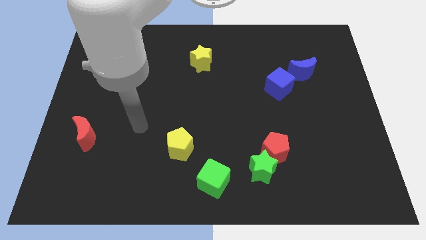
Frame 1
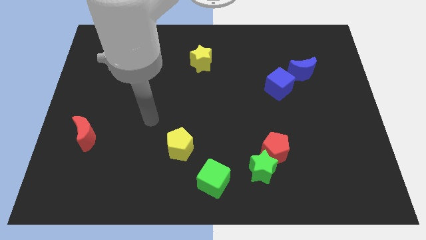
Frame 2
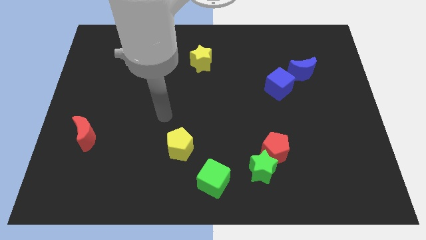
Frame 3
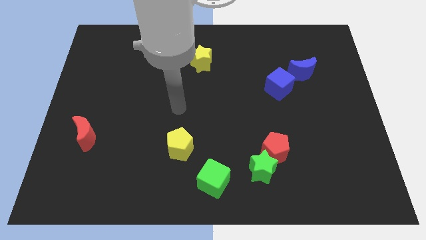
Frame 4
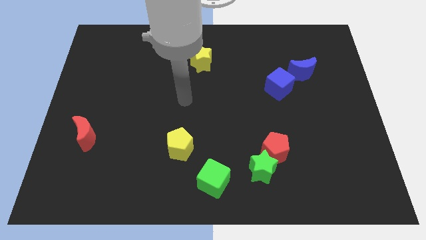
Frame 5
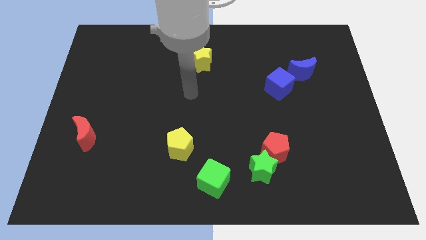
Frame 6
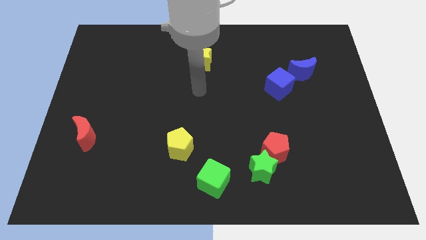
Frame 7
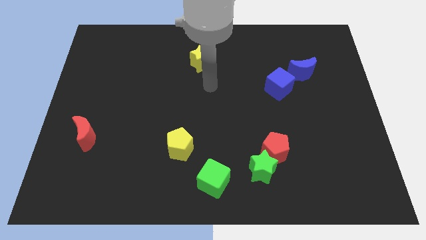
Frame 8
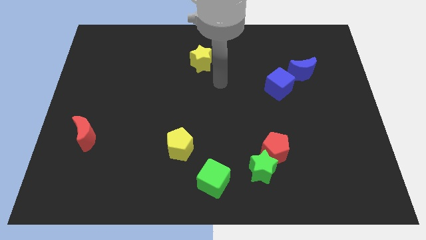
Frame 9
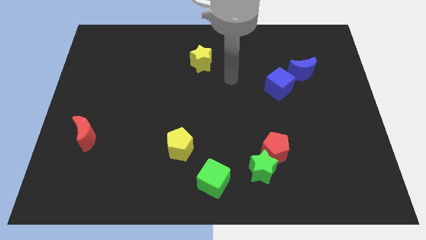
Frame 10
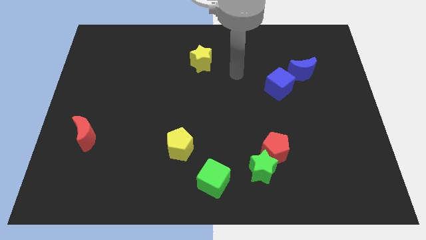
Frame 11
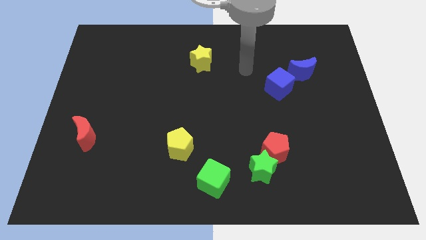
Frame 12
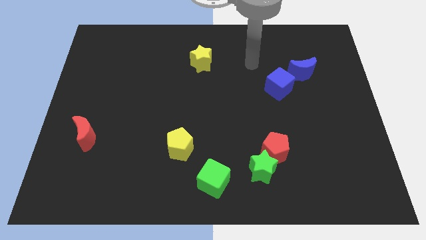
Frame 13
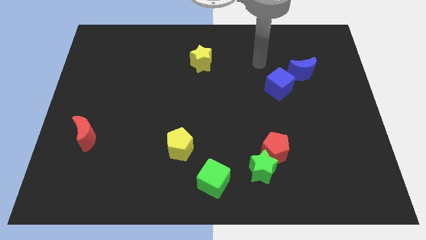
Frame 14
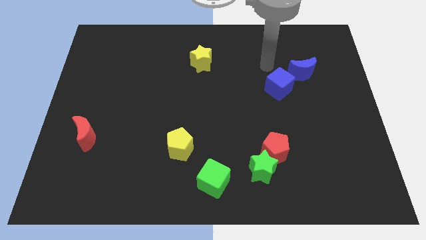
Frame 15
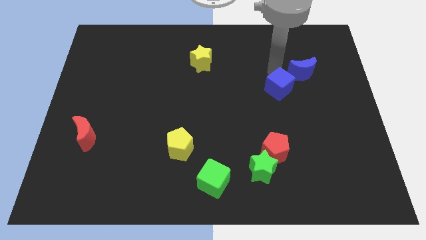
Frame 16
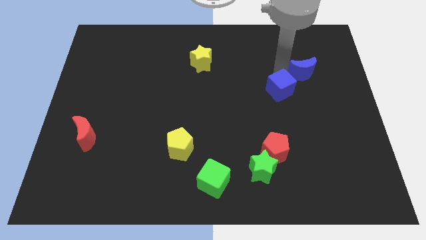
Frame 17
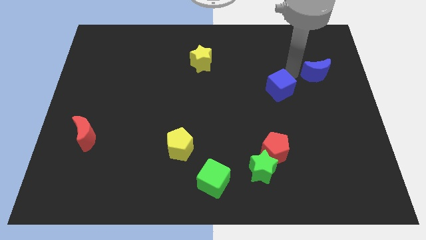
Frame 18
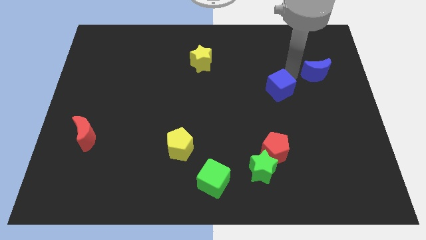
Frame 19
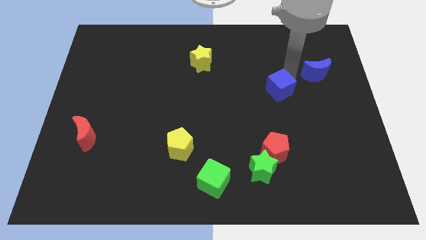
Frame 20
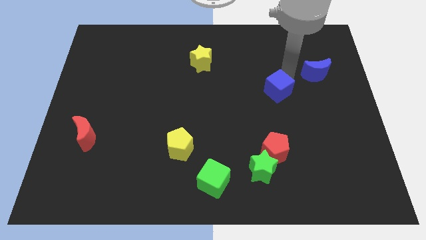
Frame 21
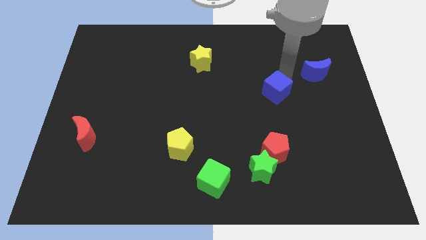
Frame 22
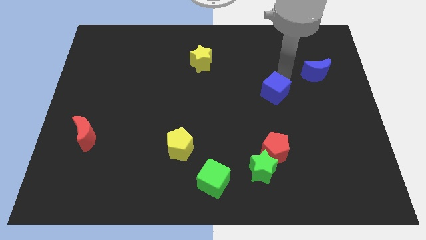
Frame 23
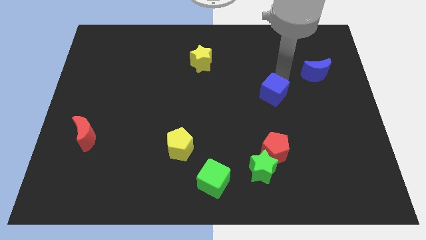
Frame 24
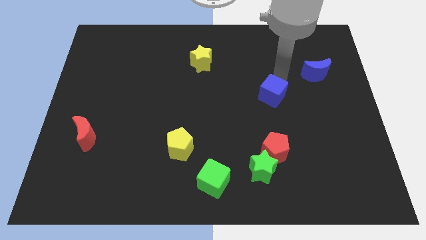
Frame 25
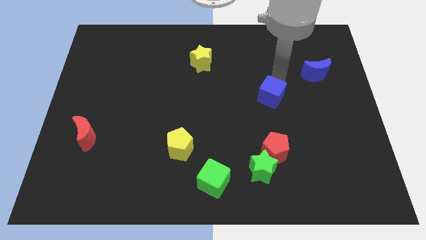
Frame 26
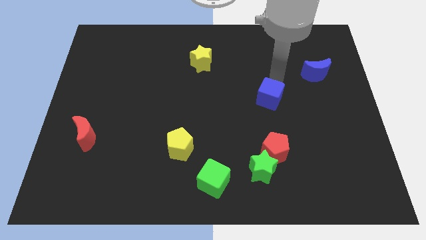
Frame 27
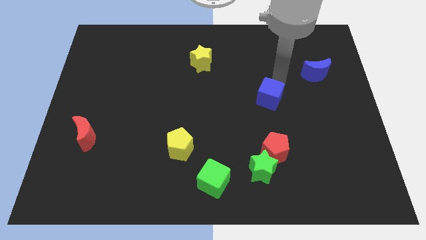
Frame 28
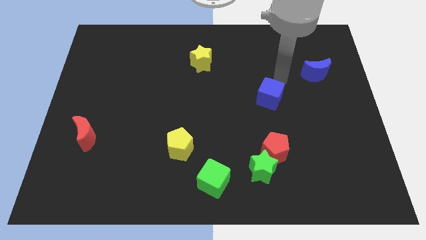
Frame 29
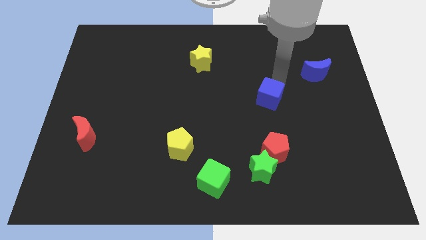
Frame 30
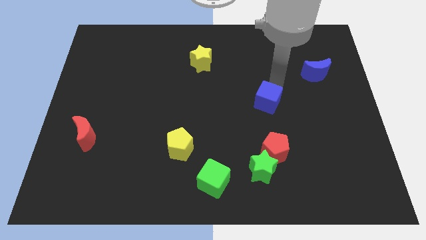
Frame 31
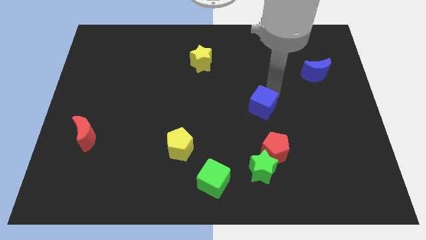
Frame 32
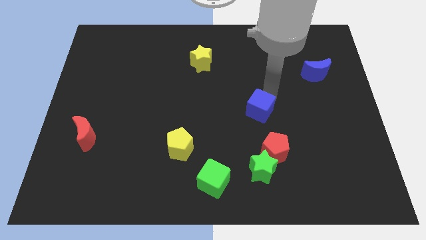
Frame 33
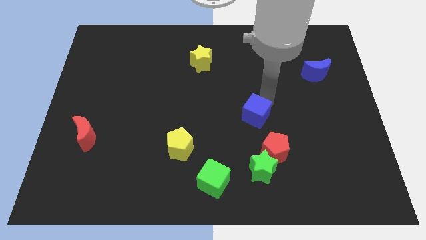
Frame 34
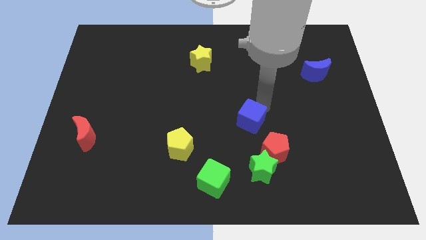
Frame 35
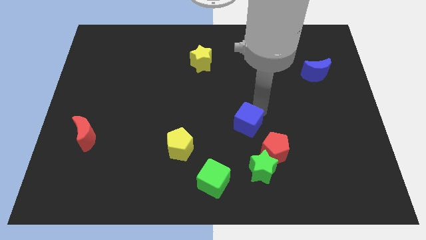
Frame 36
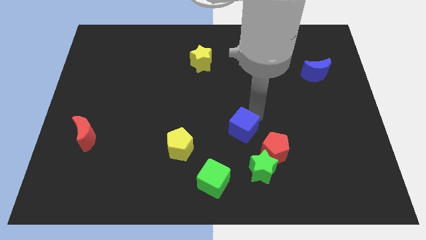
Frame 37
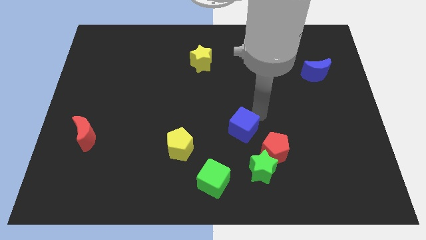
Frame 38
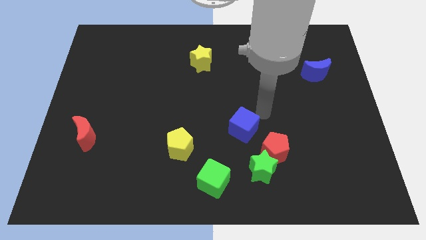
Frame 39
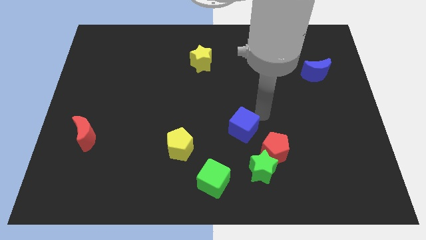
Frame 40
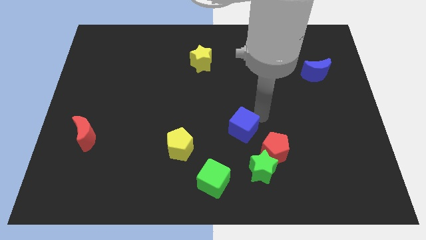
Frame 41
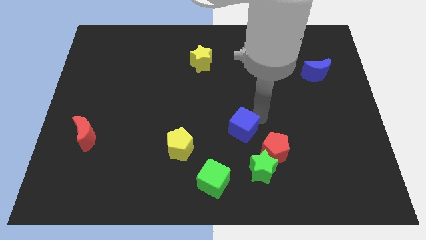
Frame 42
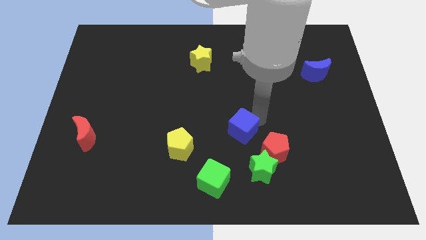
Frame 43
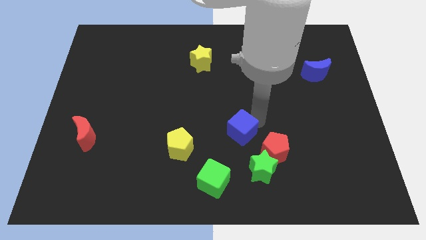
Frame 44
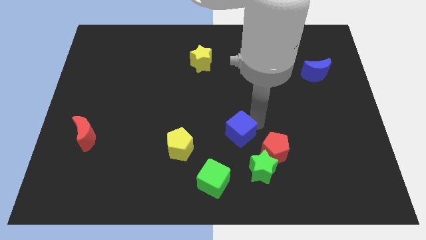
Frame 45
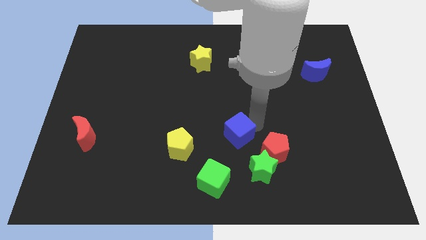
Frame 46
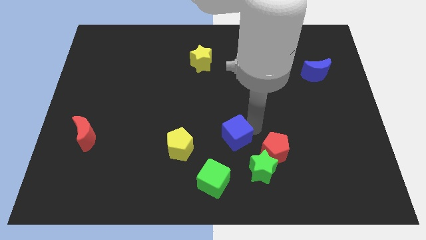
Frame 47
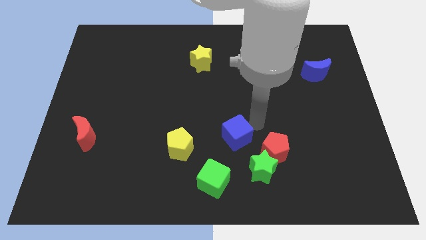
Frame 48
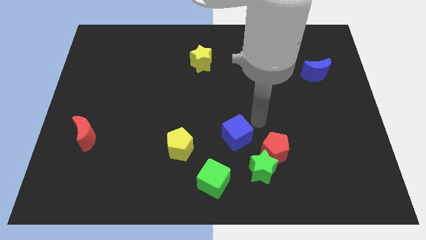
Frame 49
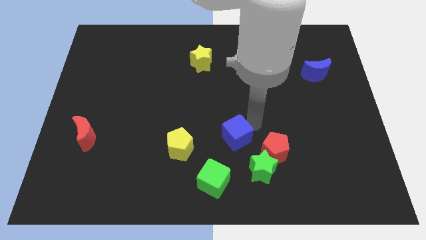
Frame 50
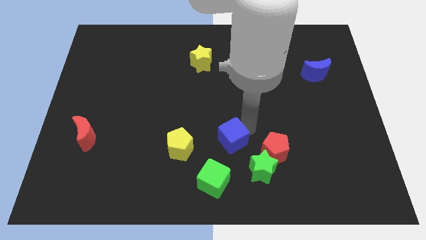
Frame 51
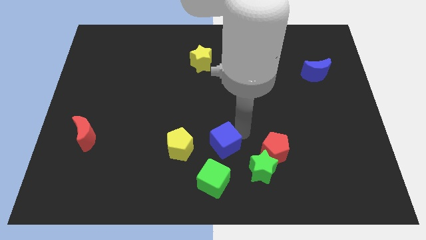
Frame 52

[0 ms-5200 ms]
move the blue cube down and to the left

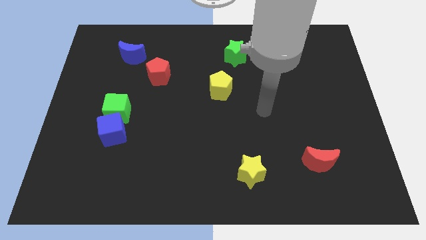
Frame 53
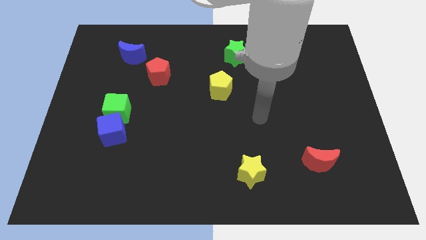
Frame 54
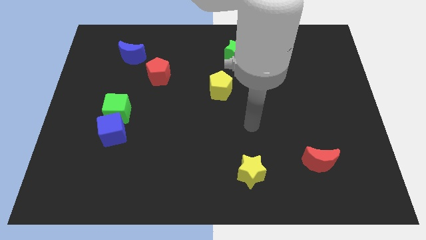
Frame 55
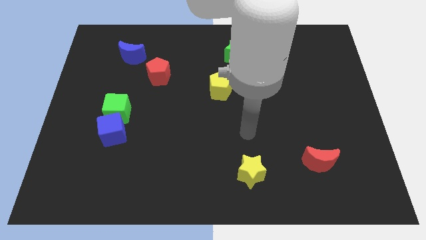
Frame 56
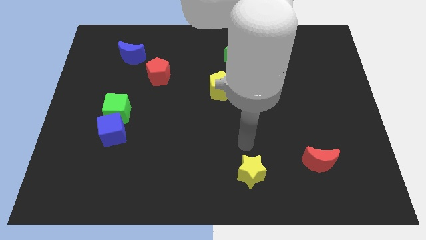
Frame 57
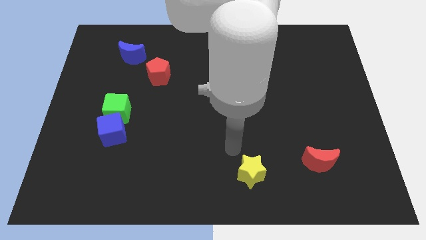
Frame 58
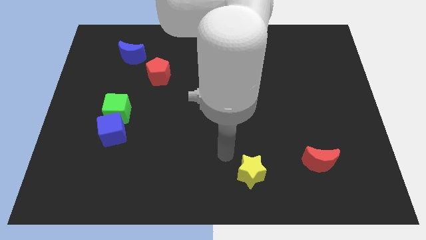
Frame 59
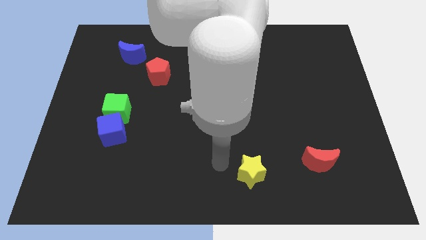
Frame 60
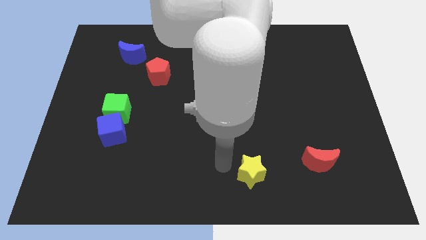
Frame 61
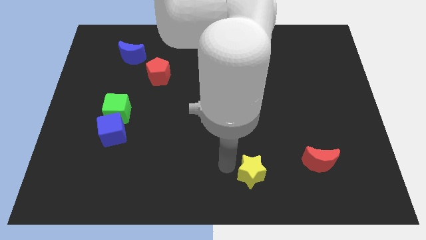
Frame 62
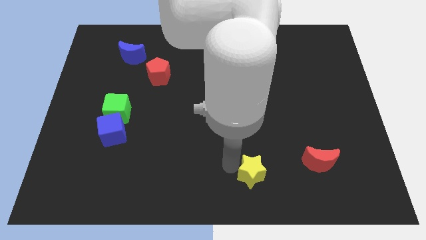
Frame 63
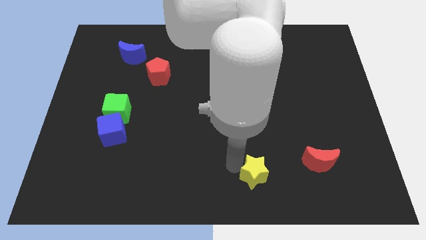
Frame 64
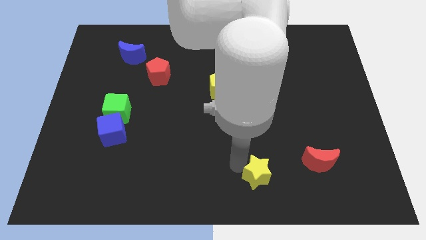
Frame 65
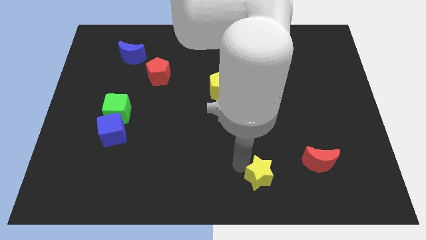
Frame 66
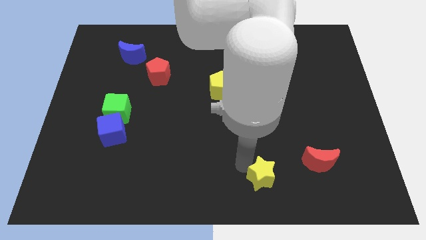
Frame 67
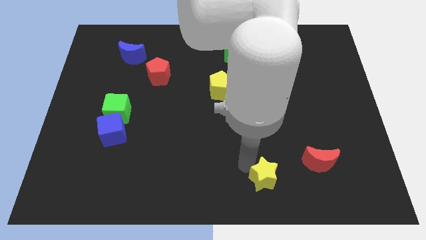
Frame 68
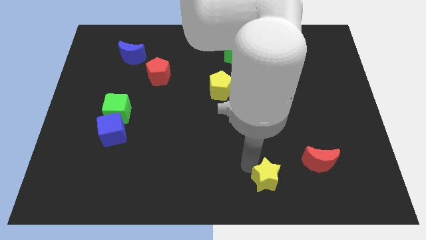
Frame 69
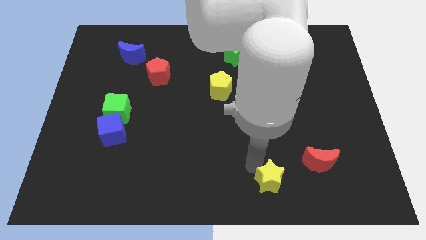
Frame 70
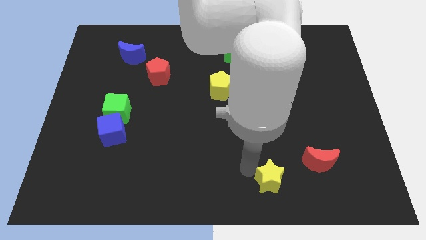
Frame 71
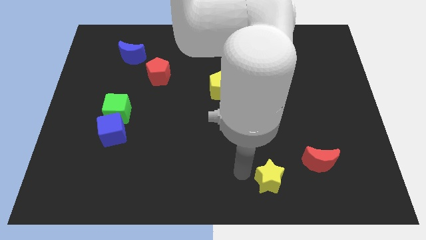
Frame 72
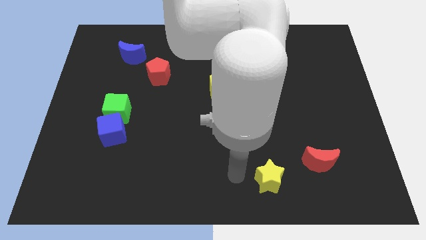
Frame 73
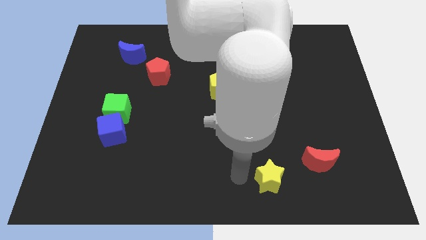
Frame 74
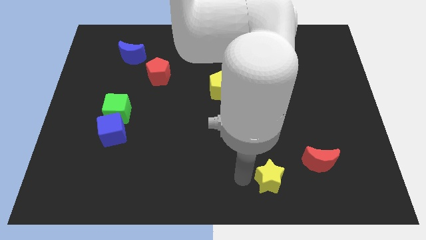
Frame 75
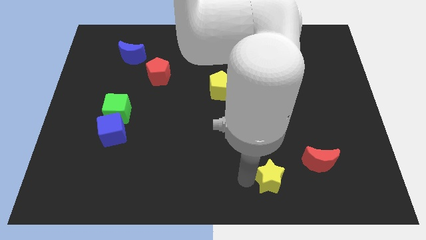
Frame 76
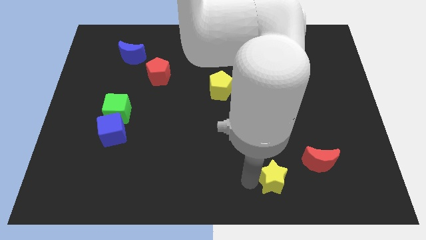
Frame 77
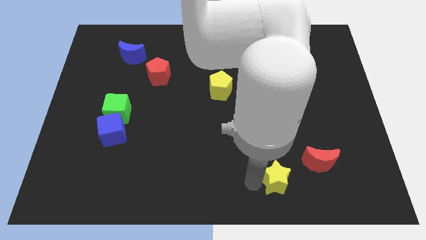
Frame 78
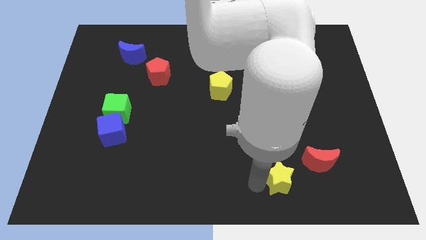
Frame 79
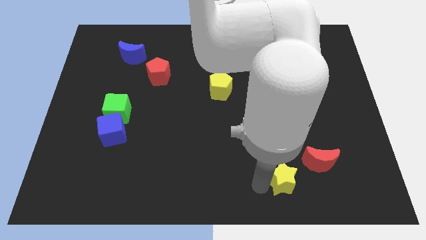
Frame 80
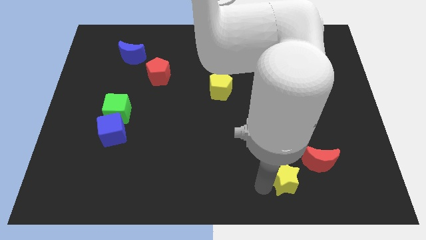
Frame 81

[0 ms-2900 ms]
slightly slide the yellow star right
